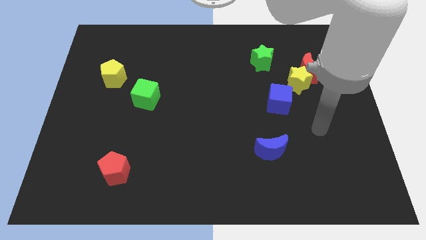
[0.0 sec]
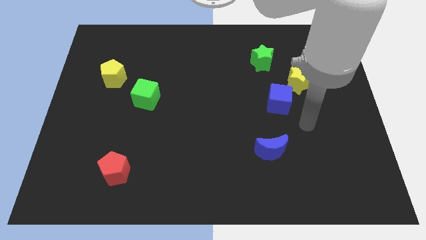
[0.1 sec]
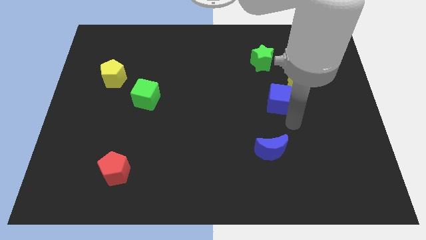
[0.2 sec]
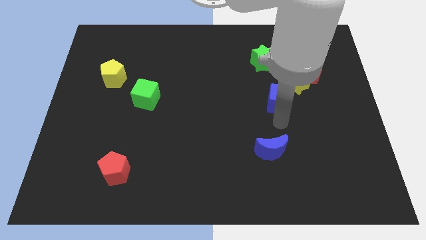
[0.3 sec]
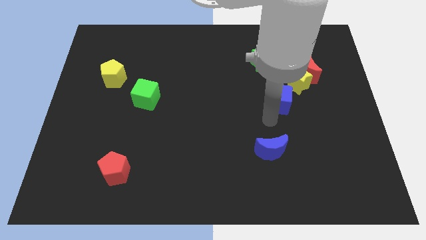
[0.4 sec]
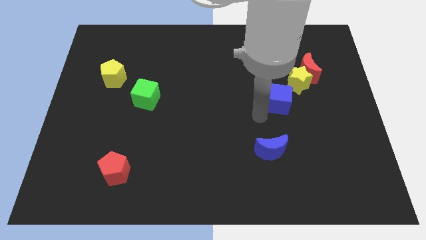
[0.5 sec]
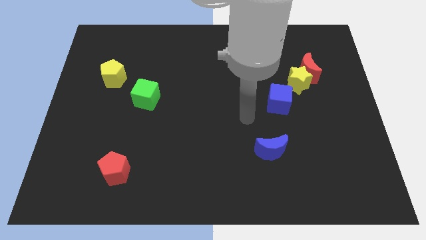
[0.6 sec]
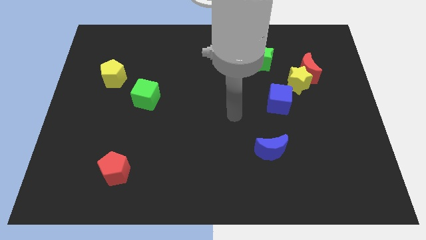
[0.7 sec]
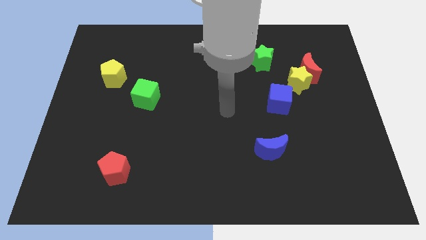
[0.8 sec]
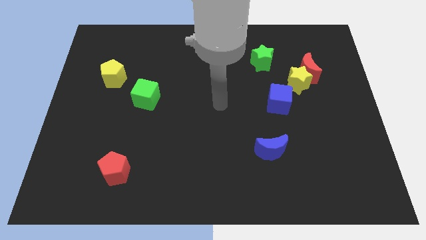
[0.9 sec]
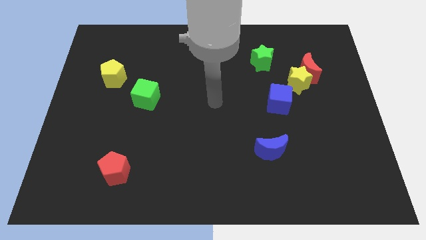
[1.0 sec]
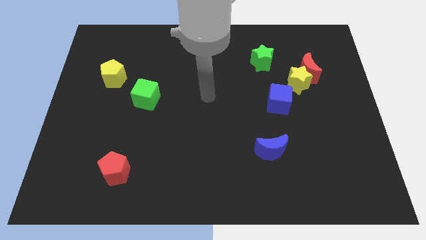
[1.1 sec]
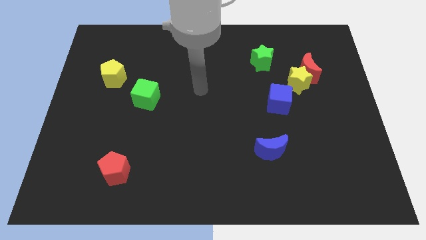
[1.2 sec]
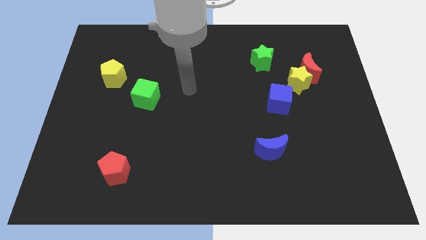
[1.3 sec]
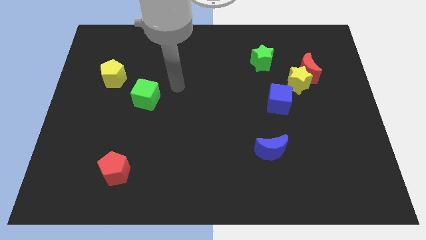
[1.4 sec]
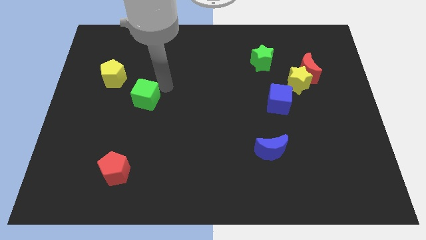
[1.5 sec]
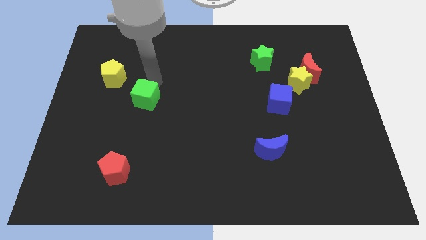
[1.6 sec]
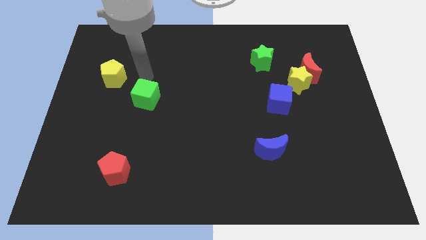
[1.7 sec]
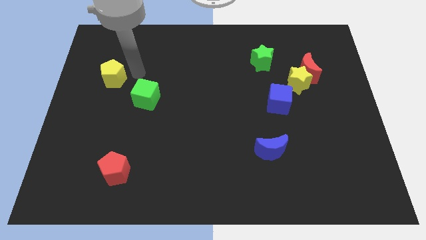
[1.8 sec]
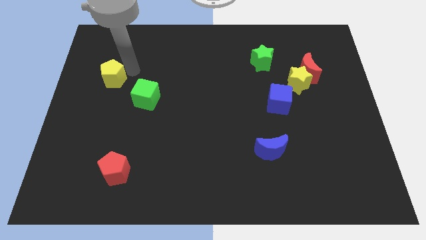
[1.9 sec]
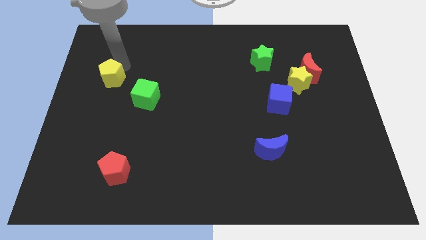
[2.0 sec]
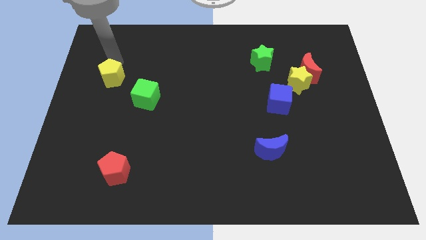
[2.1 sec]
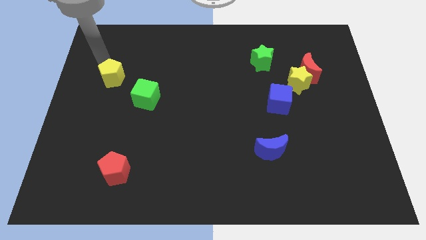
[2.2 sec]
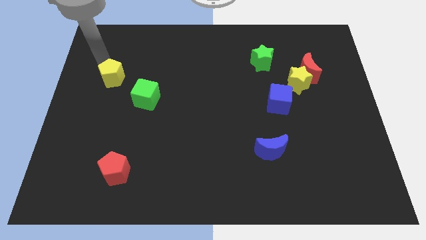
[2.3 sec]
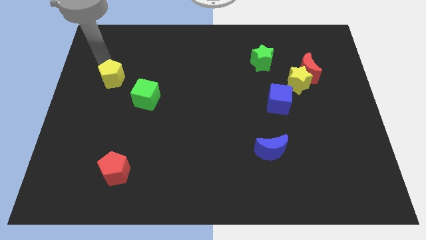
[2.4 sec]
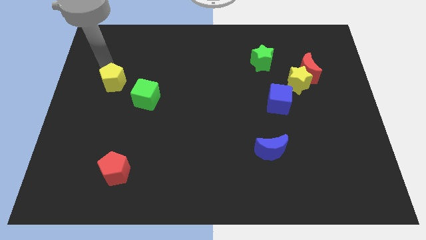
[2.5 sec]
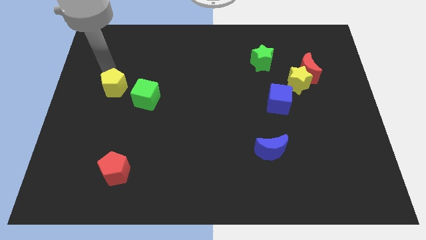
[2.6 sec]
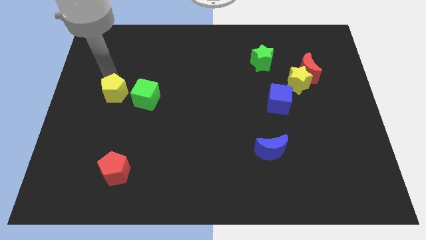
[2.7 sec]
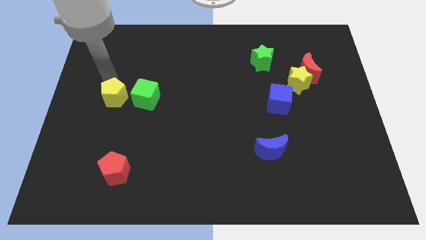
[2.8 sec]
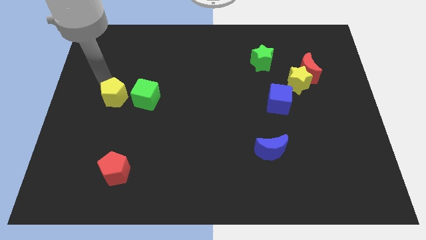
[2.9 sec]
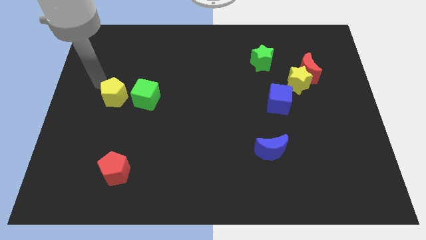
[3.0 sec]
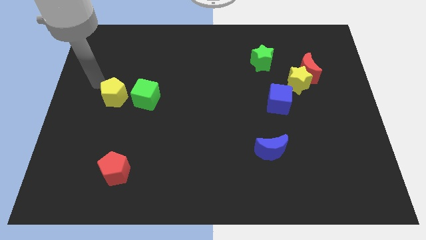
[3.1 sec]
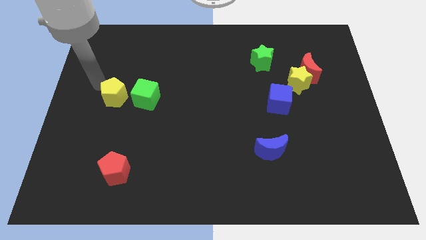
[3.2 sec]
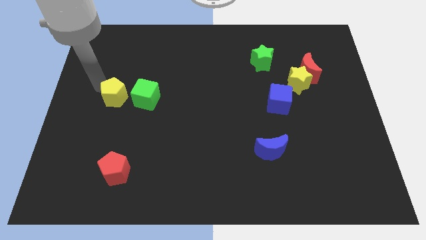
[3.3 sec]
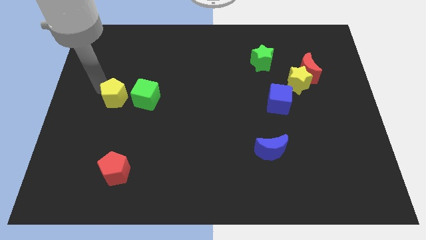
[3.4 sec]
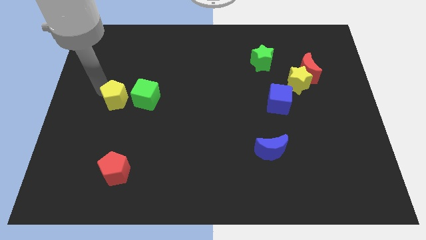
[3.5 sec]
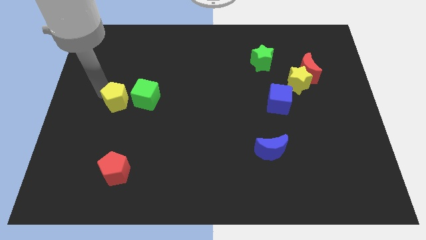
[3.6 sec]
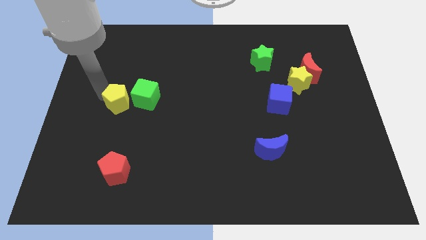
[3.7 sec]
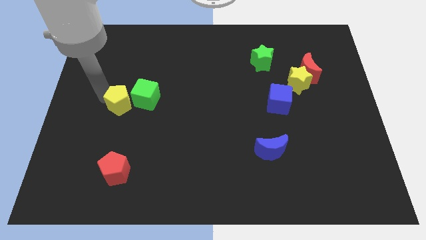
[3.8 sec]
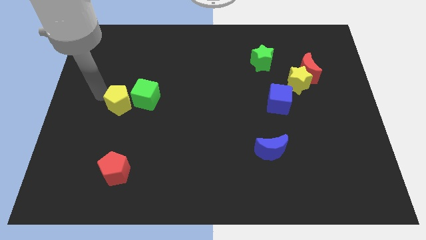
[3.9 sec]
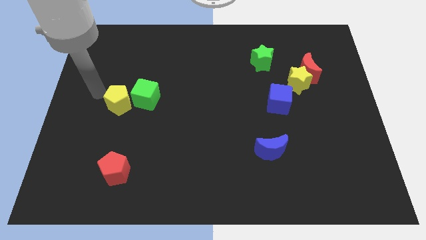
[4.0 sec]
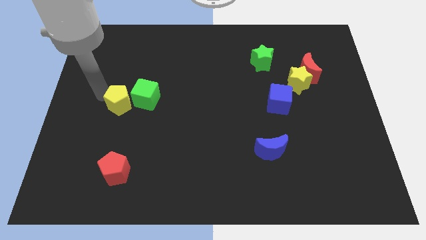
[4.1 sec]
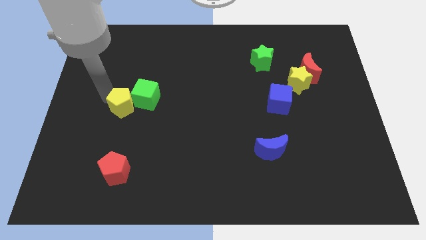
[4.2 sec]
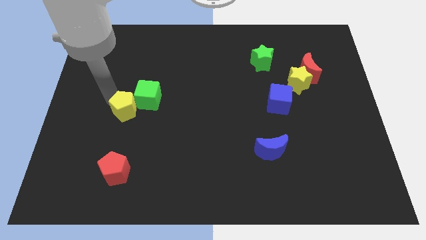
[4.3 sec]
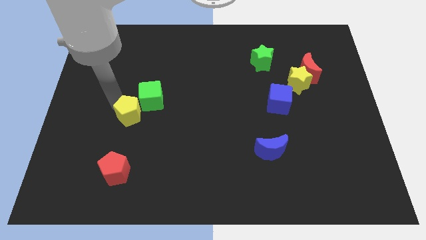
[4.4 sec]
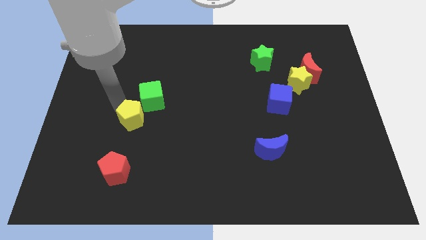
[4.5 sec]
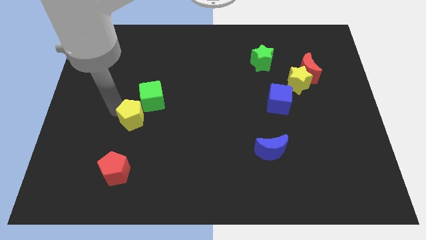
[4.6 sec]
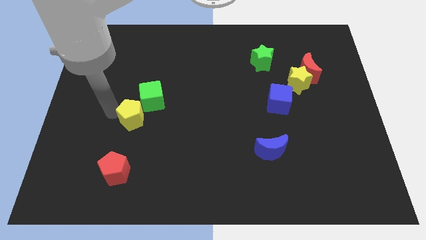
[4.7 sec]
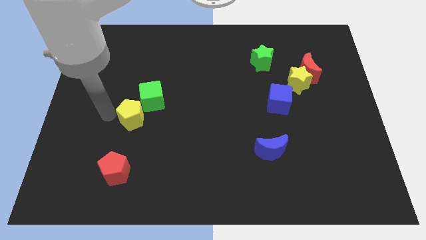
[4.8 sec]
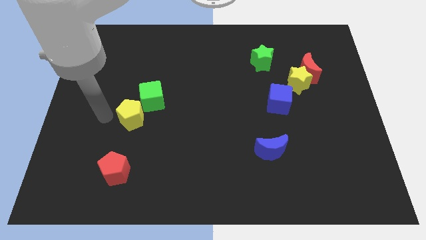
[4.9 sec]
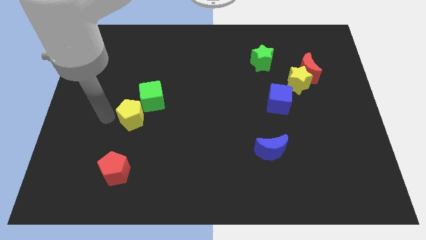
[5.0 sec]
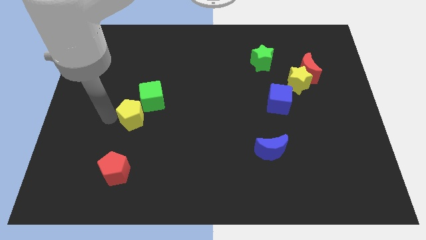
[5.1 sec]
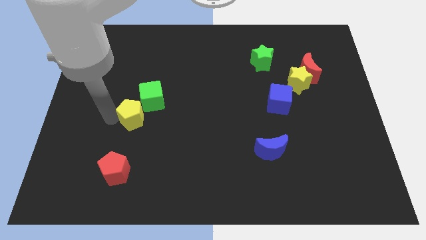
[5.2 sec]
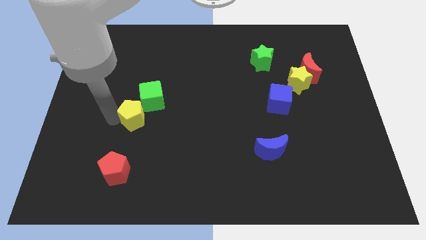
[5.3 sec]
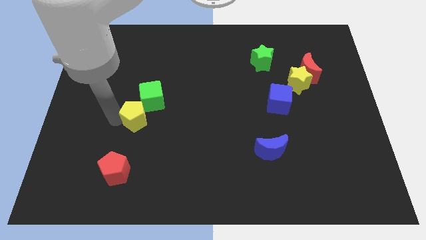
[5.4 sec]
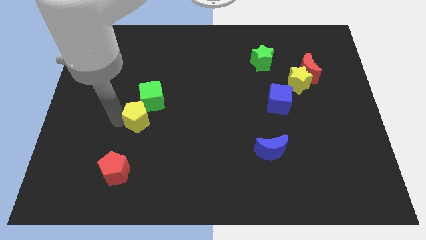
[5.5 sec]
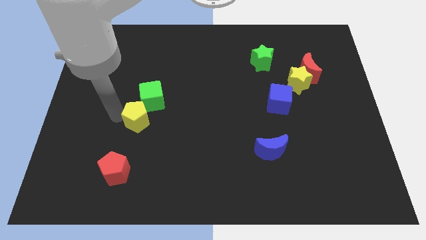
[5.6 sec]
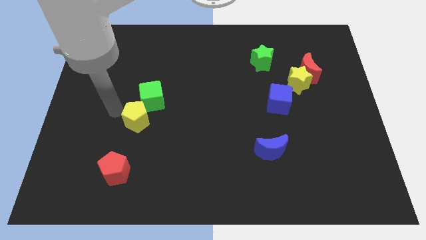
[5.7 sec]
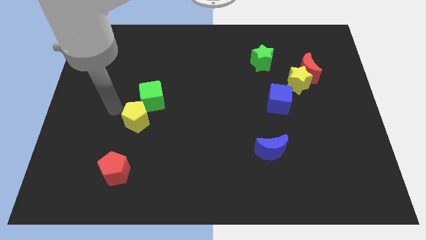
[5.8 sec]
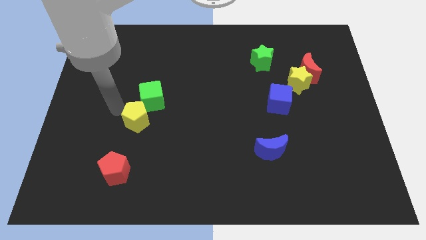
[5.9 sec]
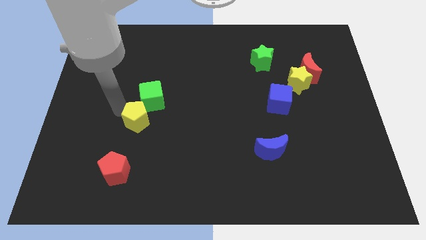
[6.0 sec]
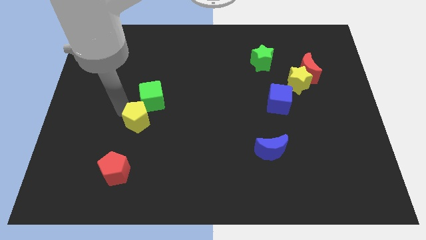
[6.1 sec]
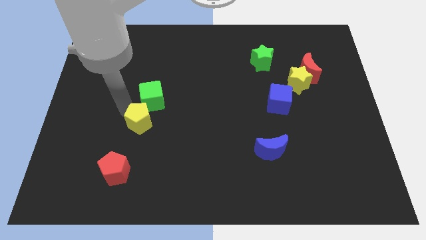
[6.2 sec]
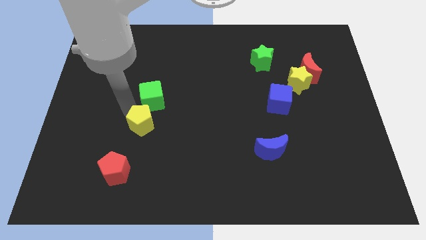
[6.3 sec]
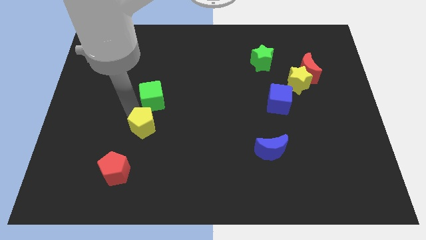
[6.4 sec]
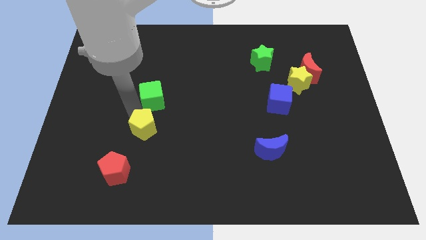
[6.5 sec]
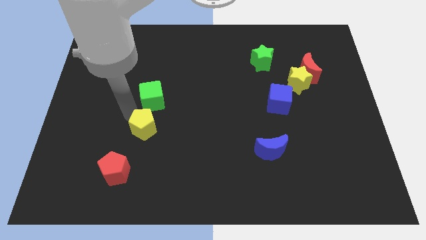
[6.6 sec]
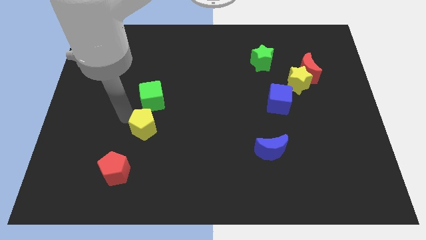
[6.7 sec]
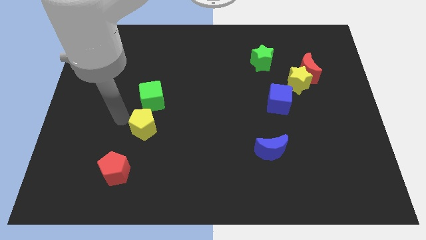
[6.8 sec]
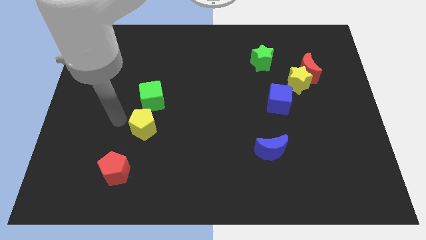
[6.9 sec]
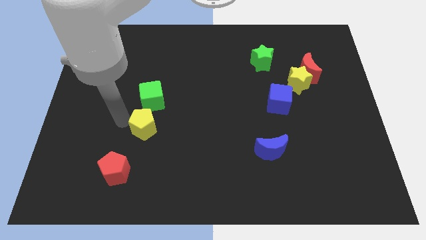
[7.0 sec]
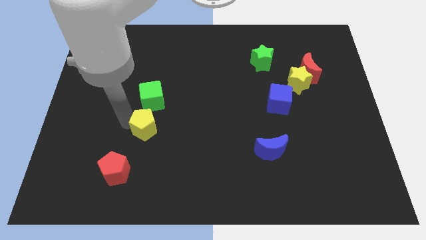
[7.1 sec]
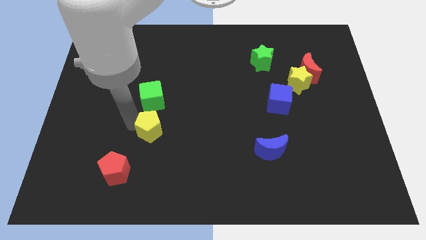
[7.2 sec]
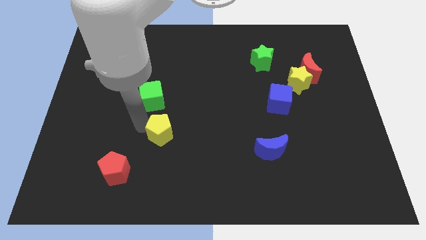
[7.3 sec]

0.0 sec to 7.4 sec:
move the yellow pentagon down and right

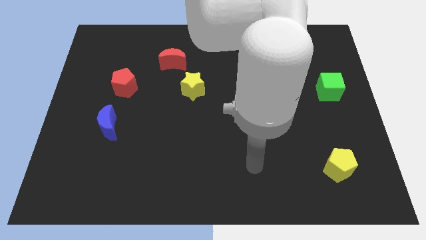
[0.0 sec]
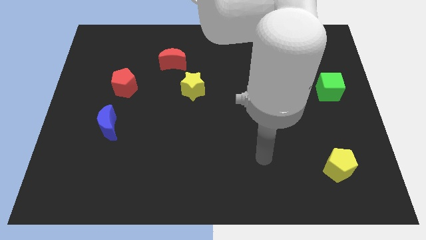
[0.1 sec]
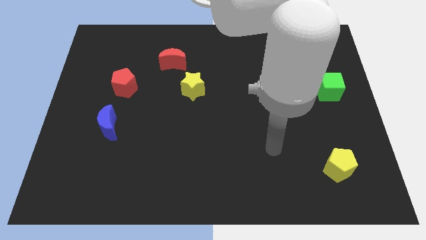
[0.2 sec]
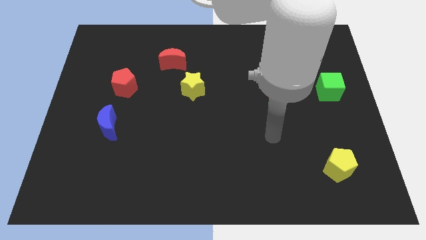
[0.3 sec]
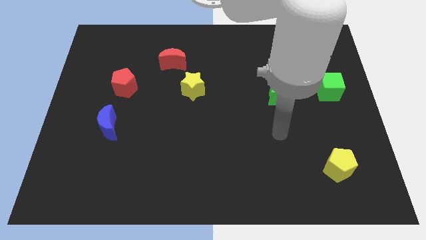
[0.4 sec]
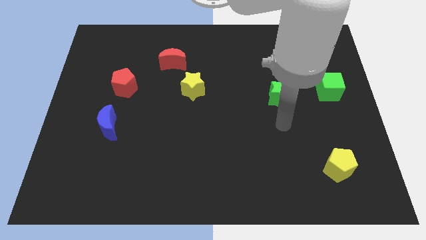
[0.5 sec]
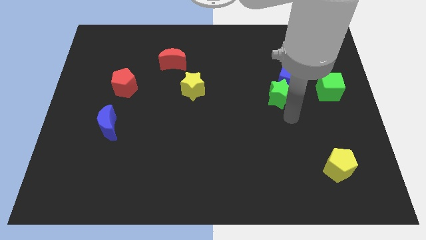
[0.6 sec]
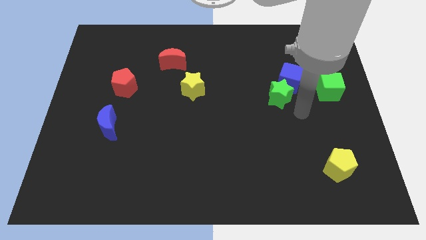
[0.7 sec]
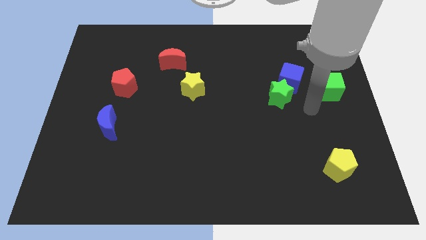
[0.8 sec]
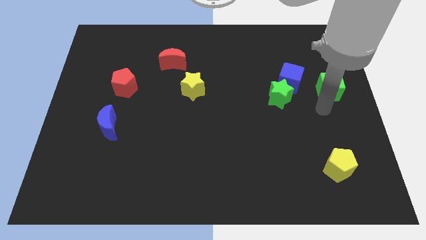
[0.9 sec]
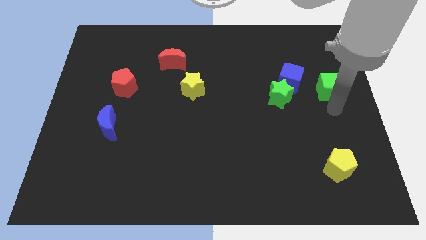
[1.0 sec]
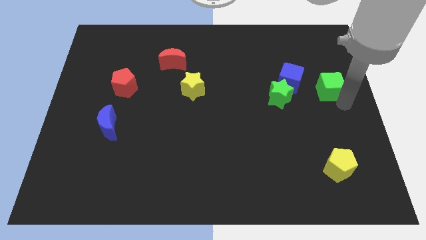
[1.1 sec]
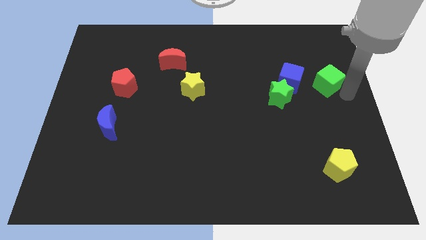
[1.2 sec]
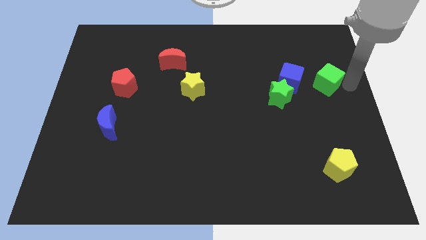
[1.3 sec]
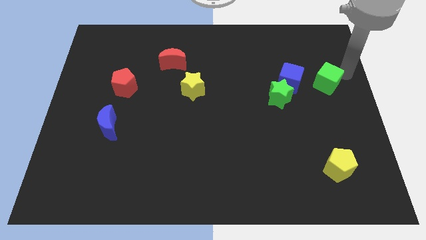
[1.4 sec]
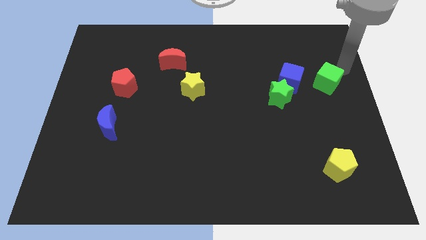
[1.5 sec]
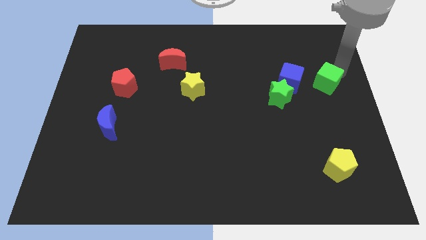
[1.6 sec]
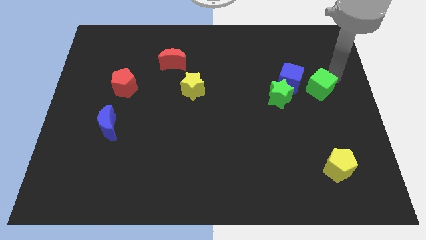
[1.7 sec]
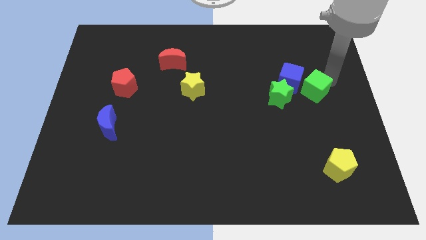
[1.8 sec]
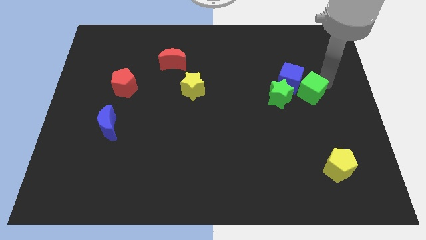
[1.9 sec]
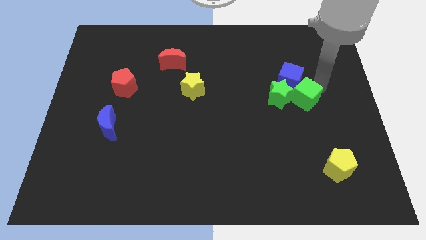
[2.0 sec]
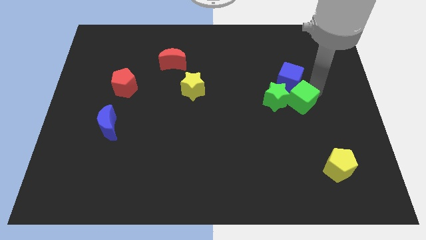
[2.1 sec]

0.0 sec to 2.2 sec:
slightly slide the green cube left
